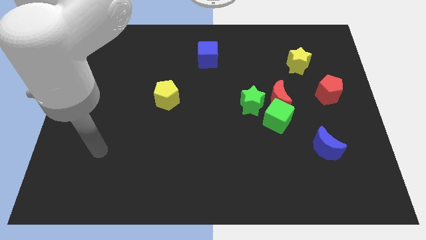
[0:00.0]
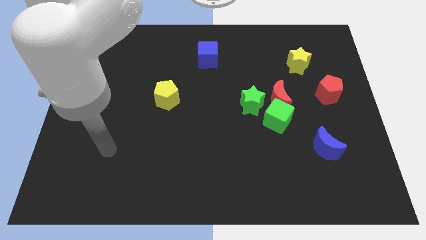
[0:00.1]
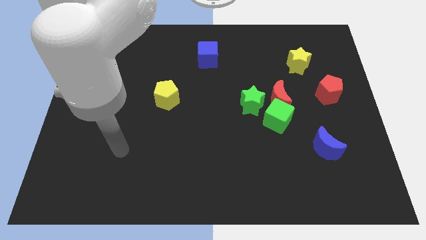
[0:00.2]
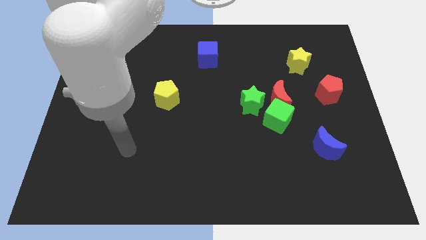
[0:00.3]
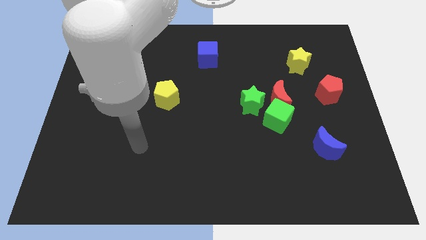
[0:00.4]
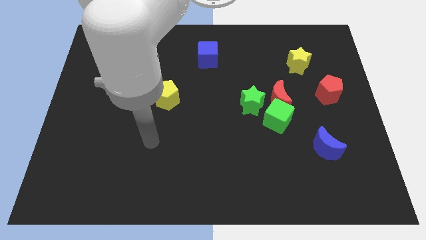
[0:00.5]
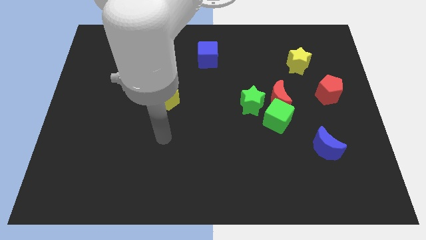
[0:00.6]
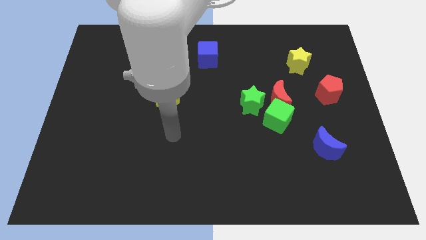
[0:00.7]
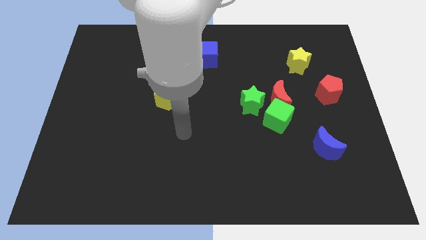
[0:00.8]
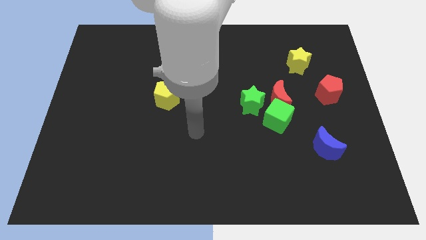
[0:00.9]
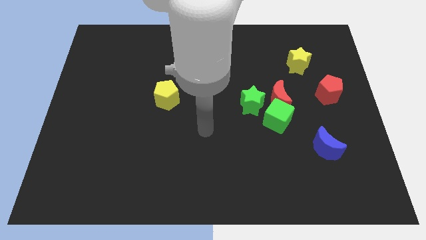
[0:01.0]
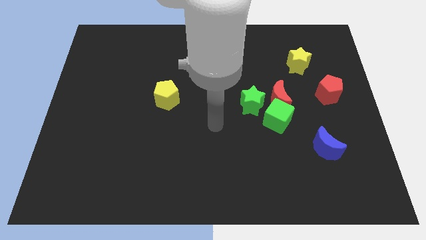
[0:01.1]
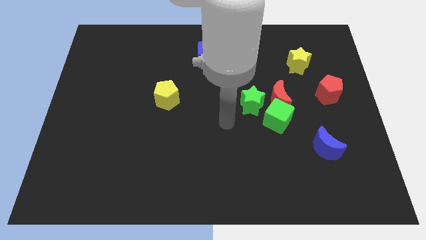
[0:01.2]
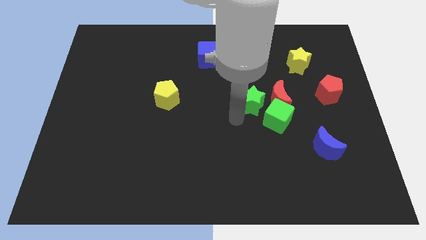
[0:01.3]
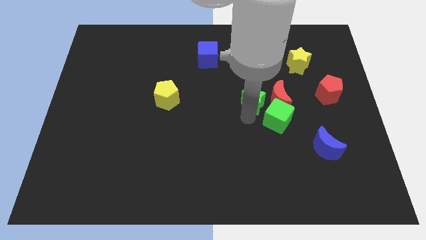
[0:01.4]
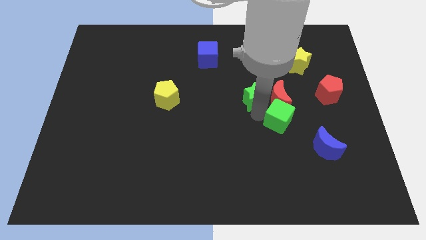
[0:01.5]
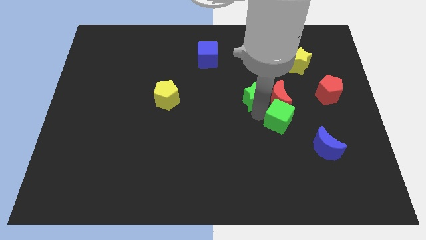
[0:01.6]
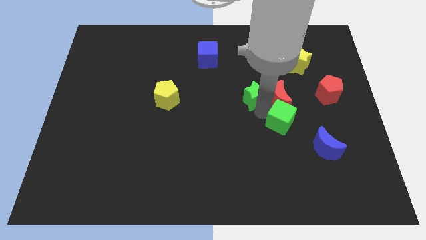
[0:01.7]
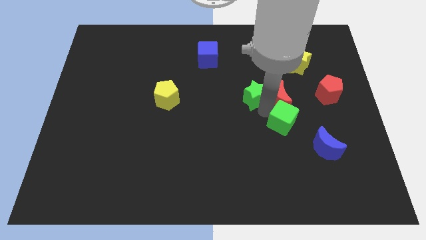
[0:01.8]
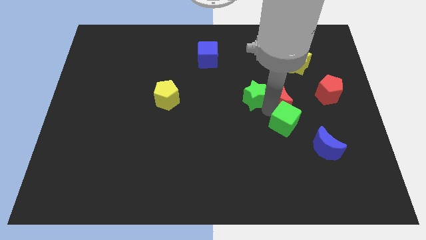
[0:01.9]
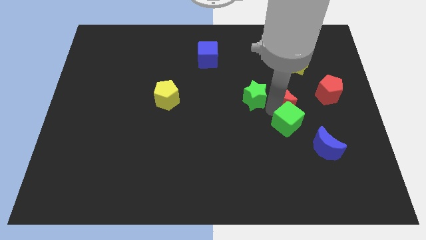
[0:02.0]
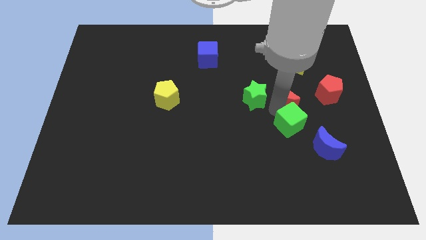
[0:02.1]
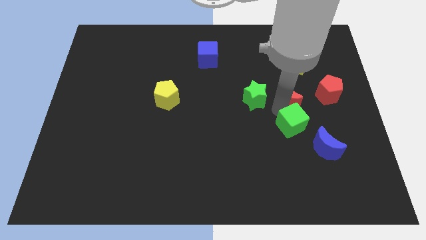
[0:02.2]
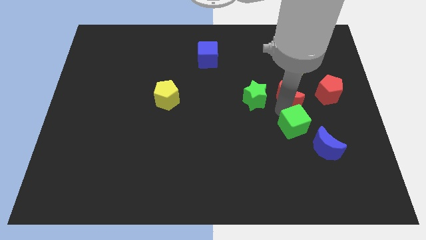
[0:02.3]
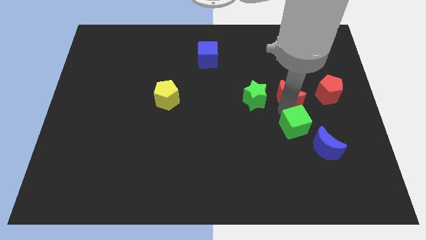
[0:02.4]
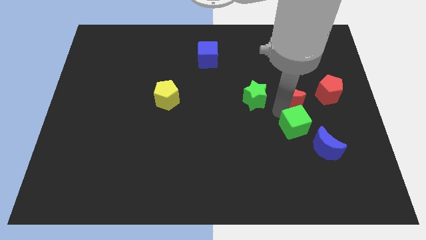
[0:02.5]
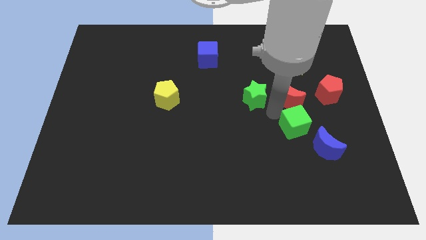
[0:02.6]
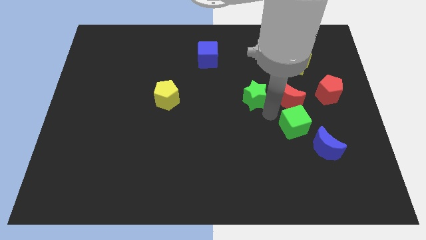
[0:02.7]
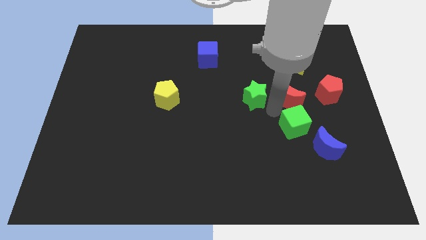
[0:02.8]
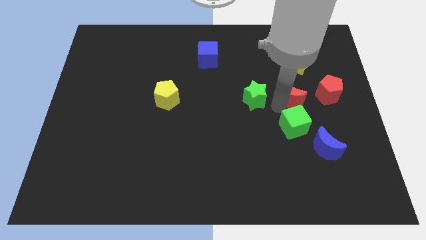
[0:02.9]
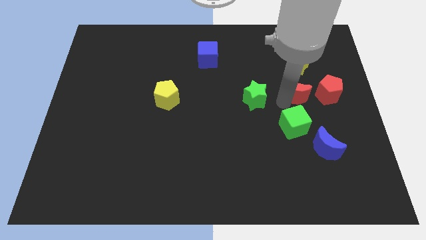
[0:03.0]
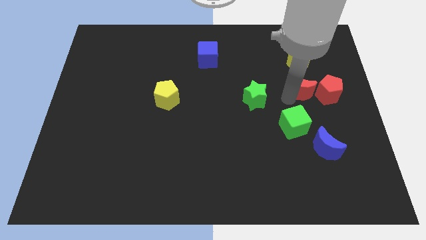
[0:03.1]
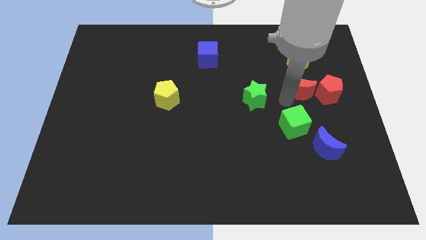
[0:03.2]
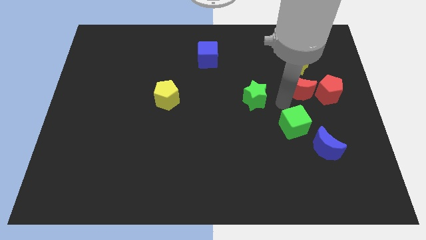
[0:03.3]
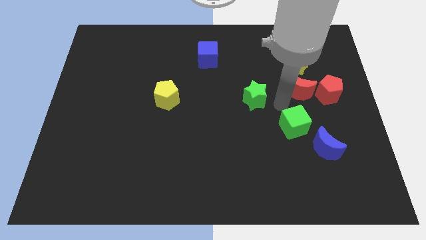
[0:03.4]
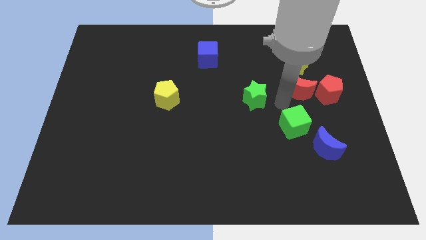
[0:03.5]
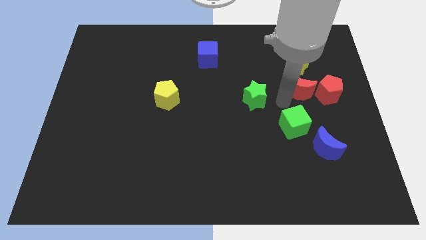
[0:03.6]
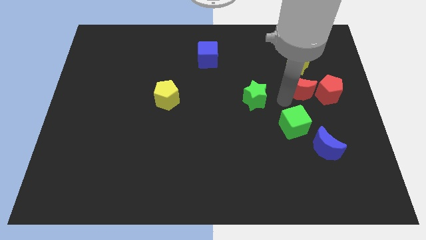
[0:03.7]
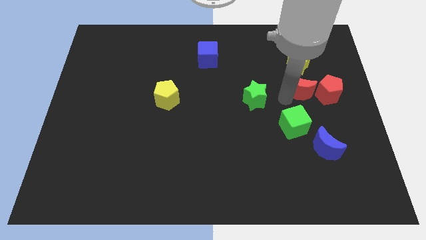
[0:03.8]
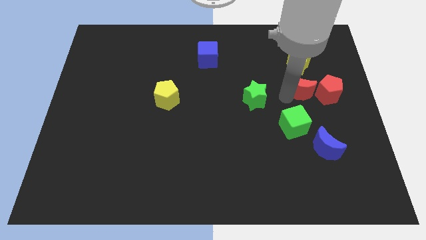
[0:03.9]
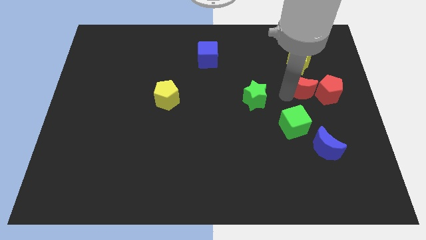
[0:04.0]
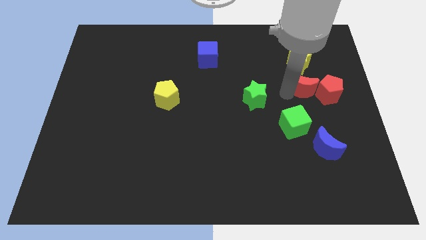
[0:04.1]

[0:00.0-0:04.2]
pull the red moon apart from the green cube and green star

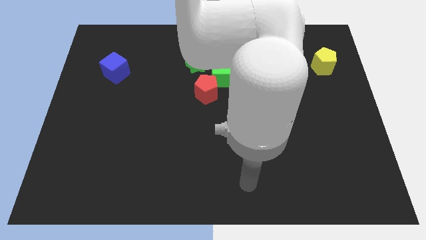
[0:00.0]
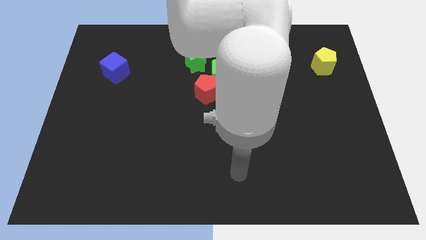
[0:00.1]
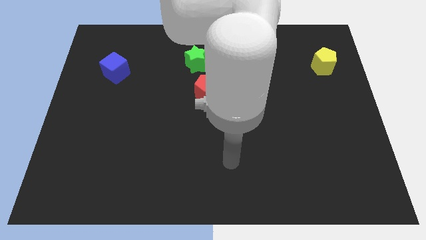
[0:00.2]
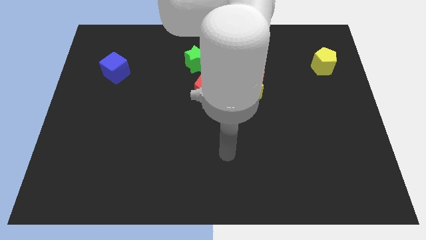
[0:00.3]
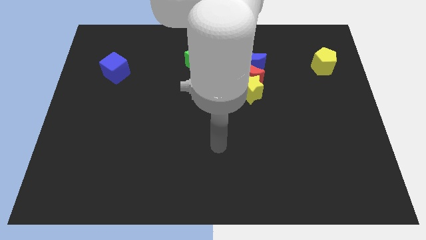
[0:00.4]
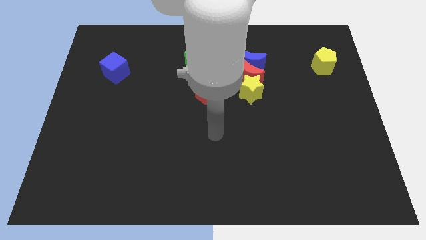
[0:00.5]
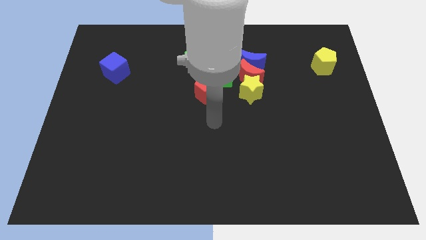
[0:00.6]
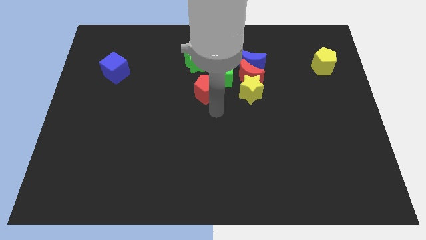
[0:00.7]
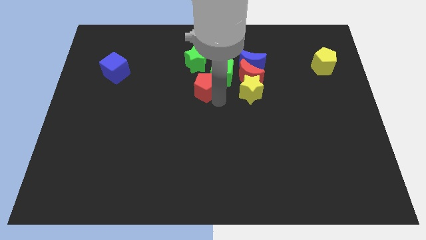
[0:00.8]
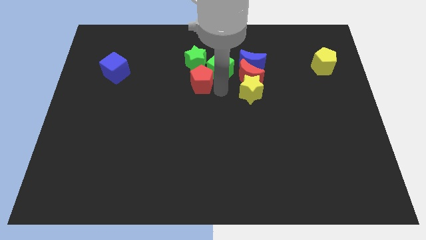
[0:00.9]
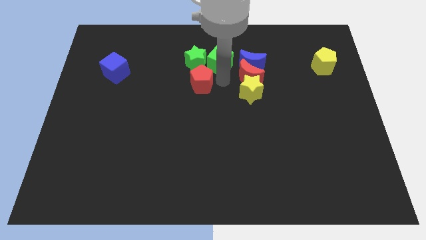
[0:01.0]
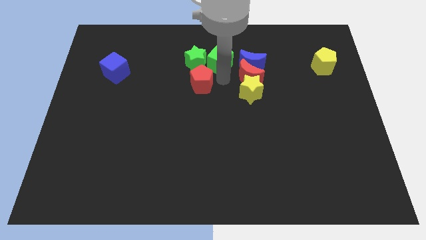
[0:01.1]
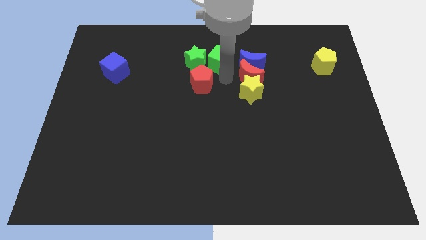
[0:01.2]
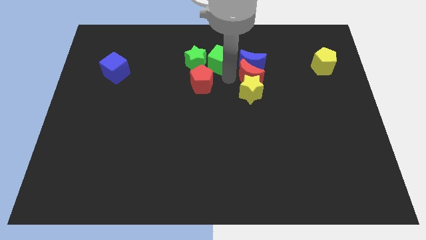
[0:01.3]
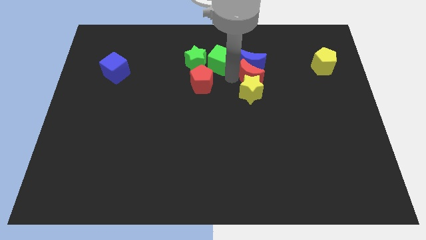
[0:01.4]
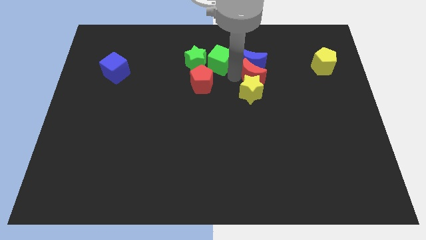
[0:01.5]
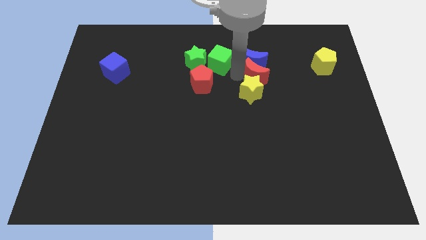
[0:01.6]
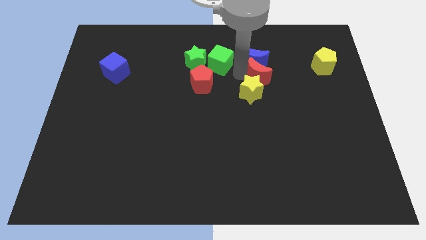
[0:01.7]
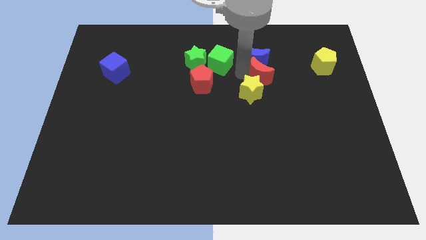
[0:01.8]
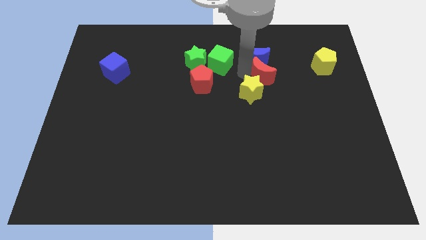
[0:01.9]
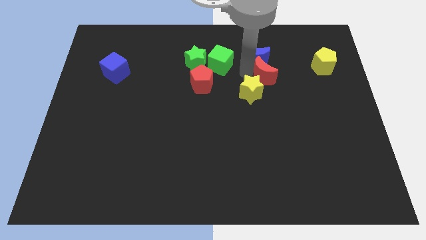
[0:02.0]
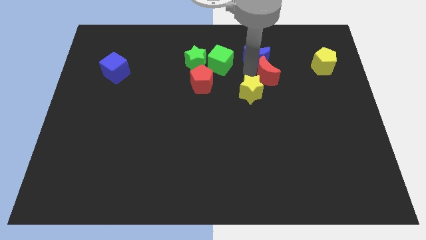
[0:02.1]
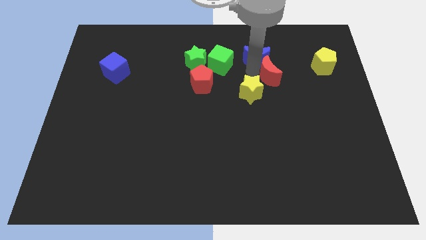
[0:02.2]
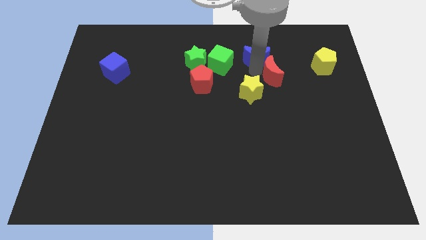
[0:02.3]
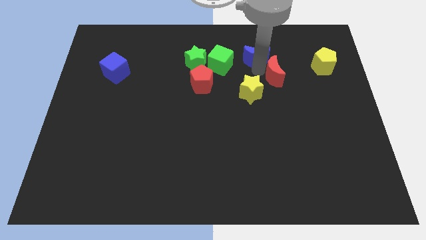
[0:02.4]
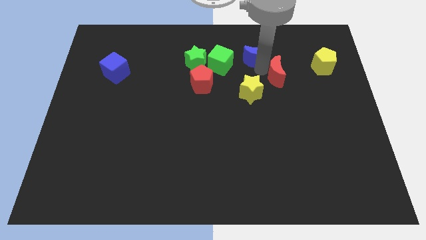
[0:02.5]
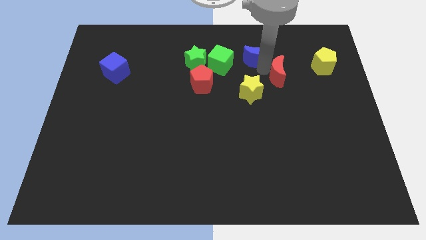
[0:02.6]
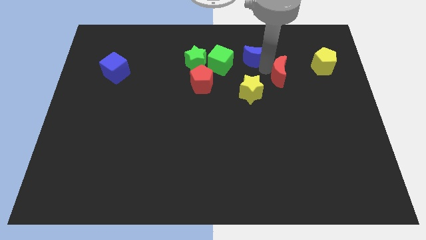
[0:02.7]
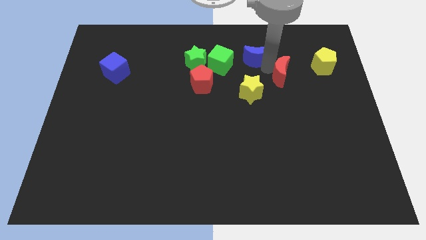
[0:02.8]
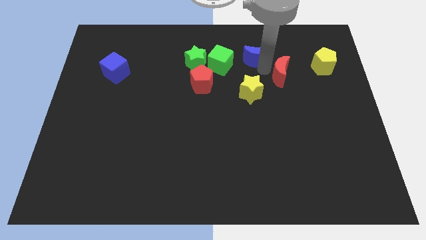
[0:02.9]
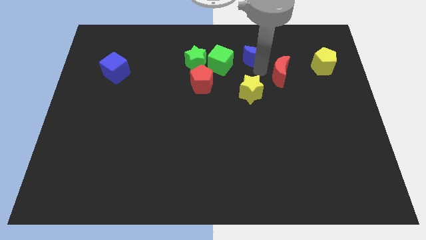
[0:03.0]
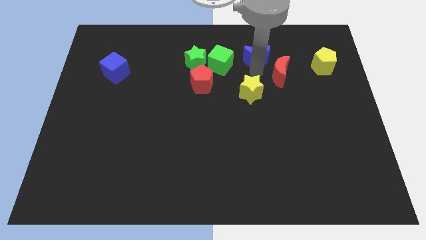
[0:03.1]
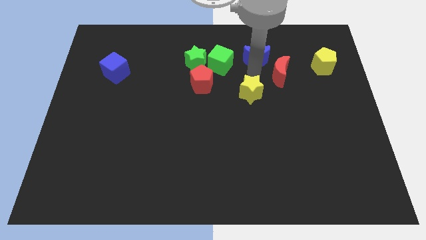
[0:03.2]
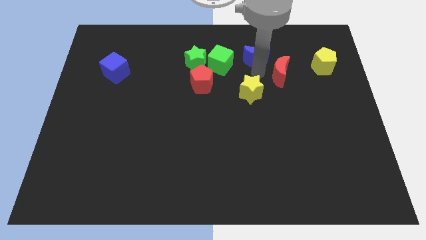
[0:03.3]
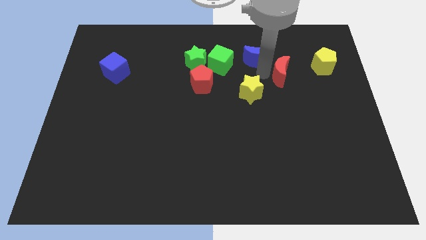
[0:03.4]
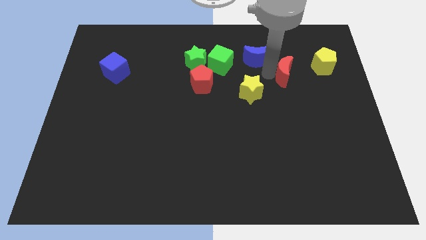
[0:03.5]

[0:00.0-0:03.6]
move the red moon away from the group

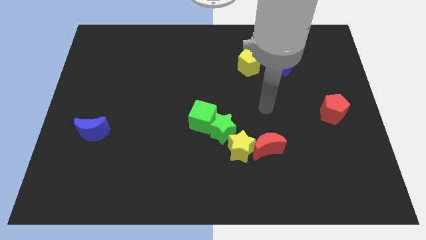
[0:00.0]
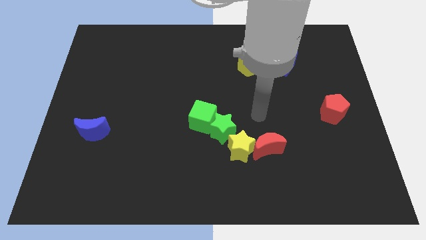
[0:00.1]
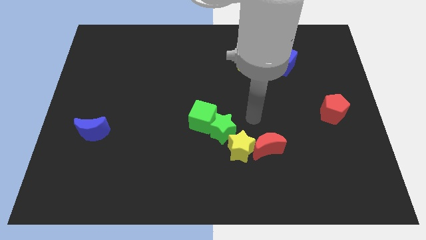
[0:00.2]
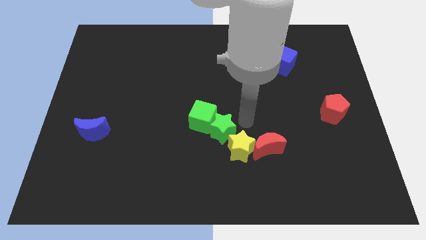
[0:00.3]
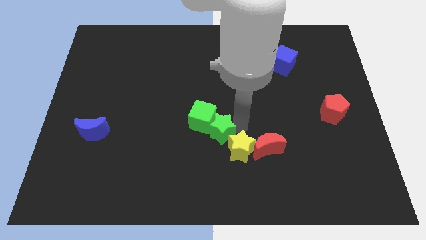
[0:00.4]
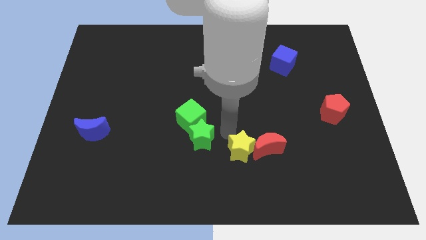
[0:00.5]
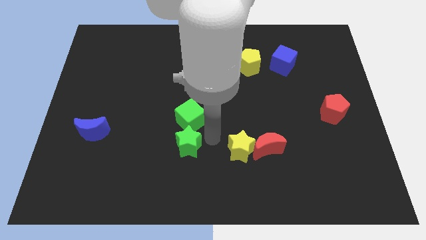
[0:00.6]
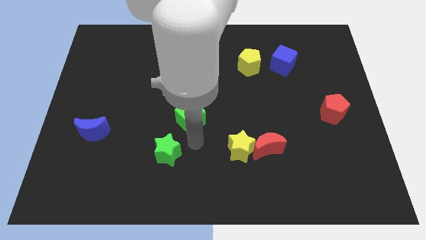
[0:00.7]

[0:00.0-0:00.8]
move the green cube away from the green star

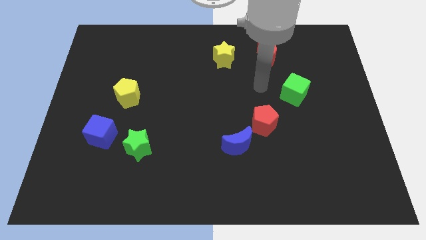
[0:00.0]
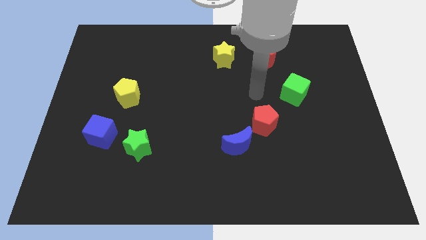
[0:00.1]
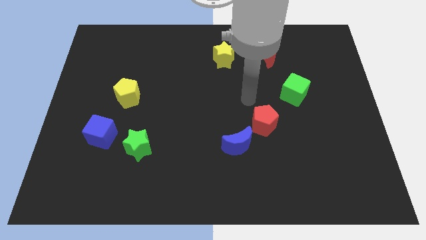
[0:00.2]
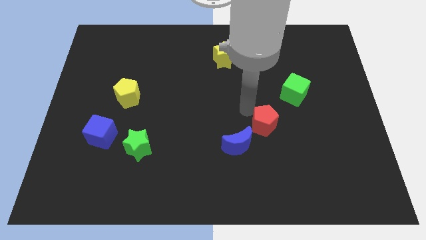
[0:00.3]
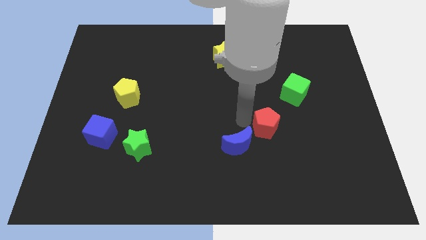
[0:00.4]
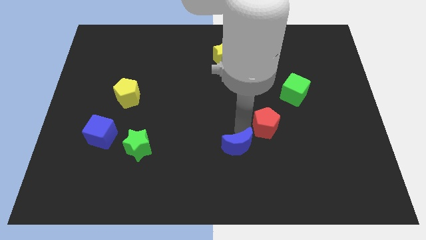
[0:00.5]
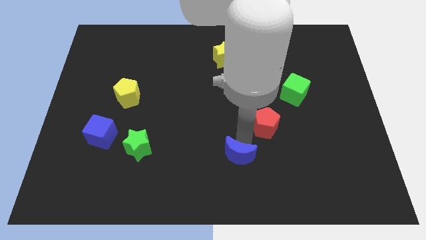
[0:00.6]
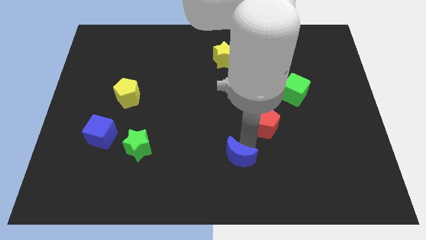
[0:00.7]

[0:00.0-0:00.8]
separate the red pentagon from the blue moon

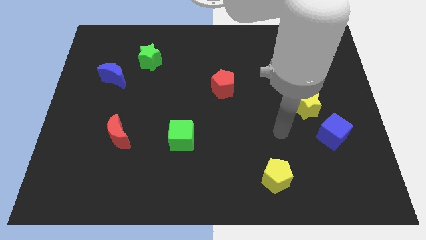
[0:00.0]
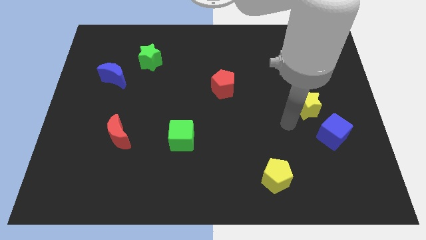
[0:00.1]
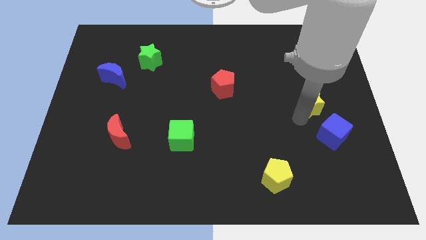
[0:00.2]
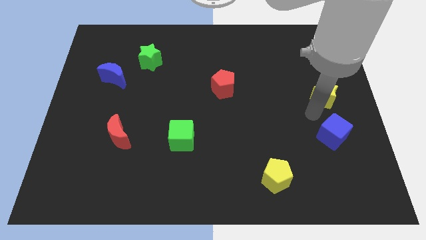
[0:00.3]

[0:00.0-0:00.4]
separate the blue cube from the yellow star
